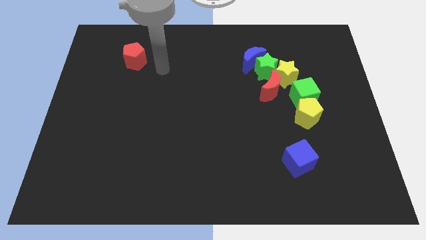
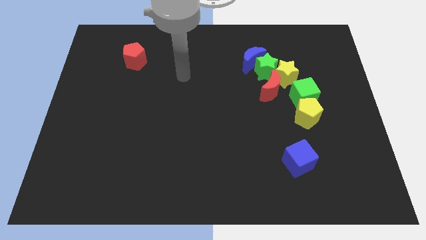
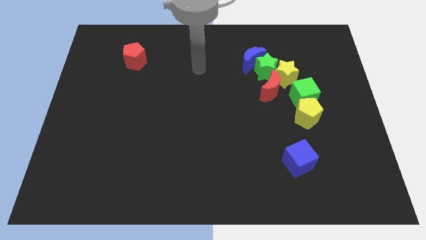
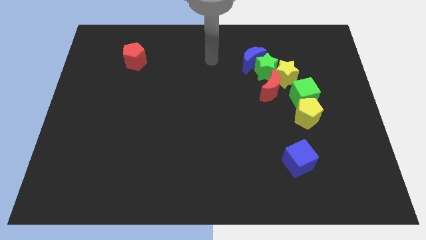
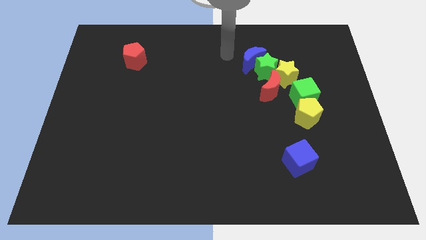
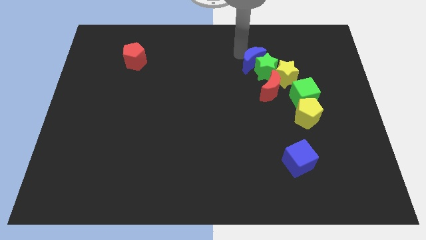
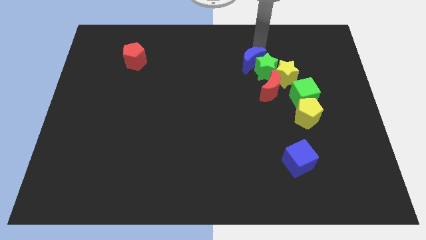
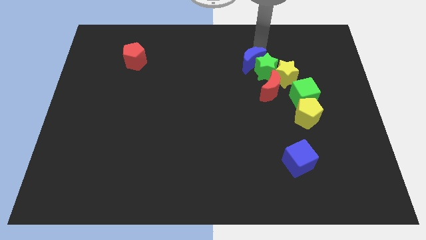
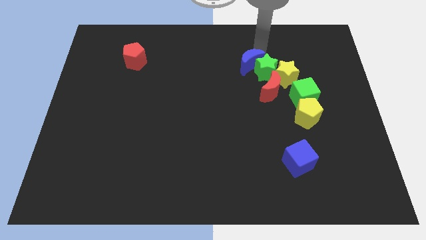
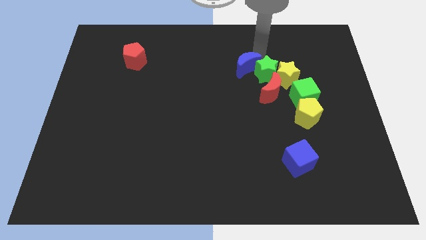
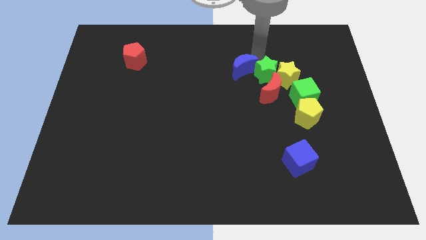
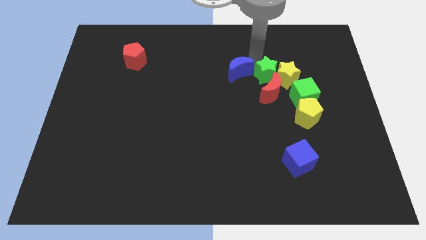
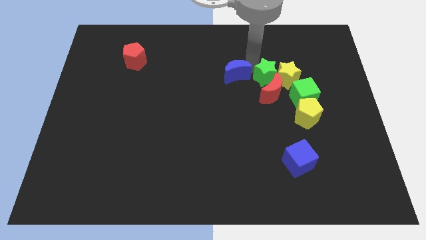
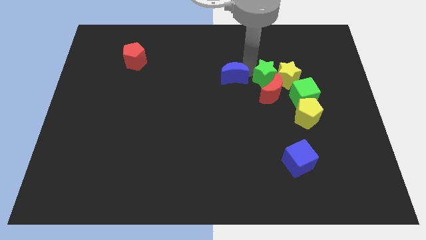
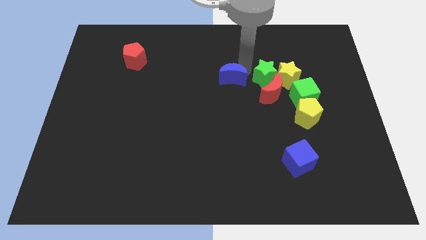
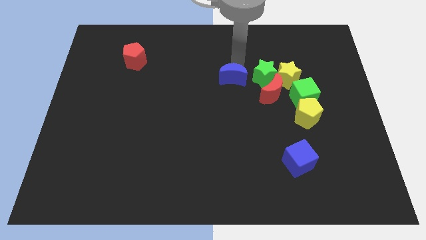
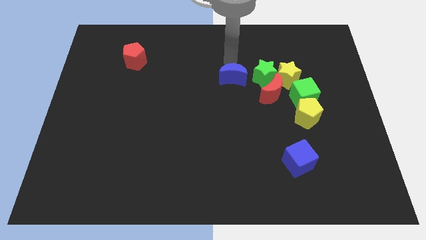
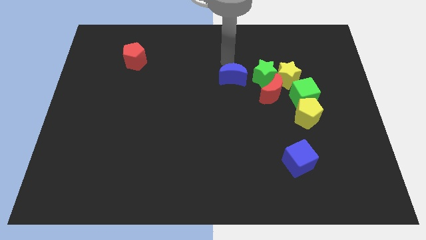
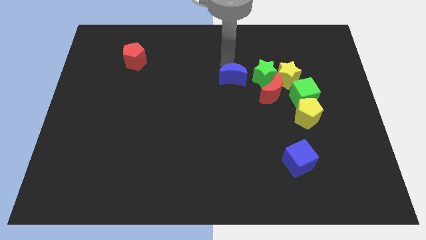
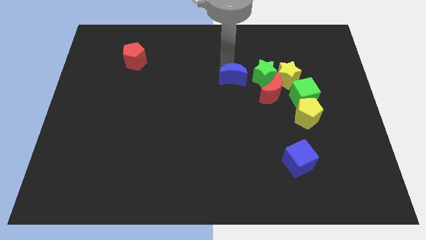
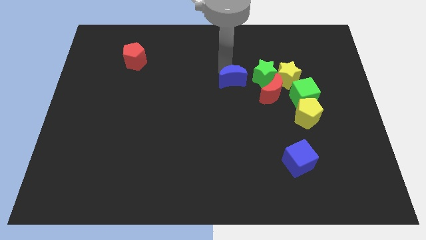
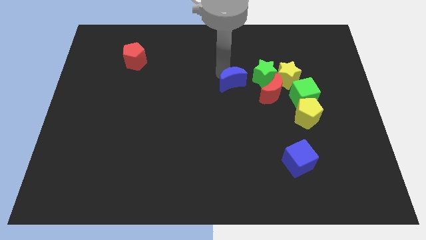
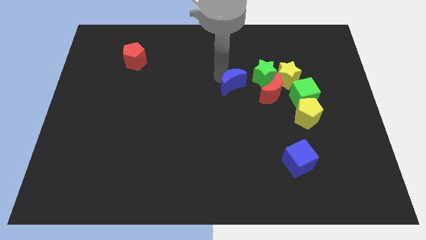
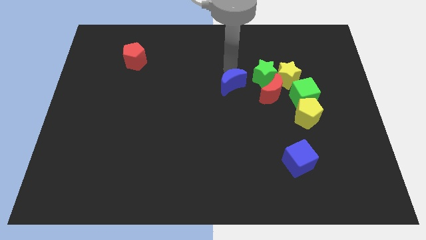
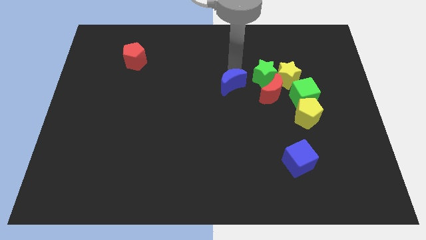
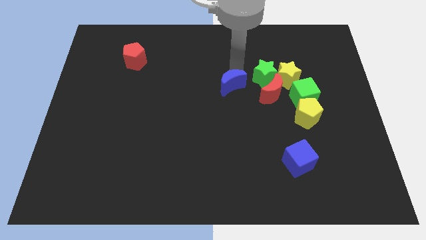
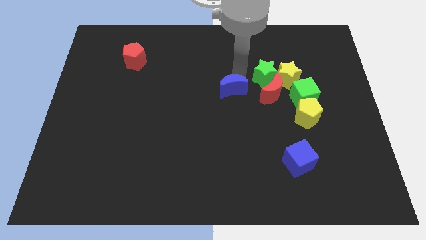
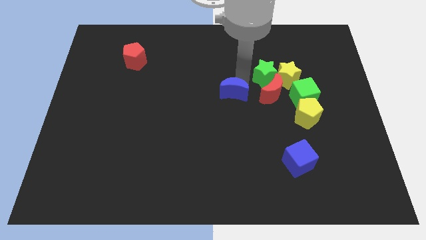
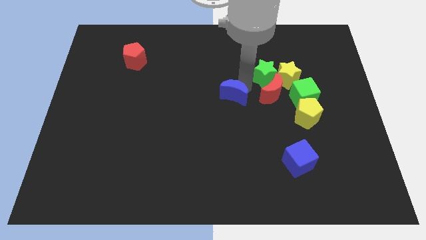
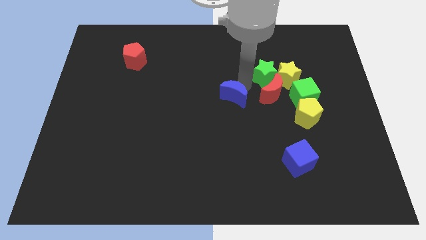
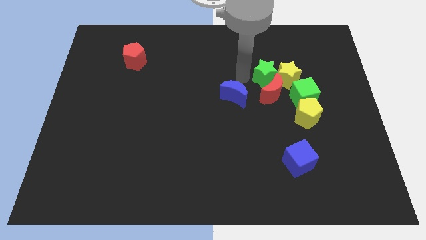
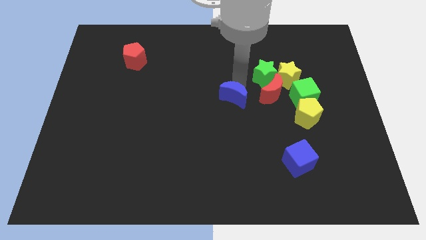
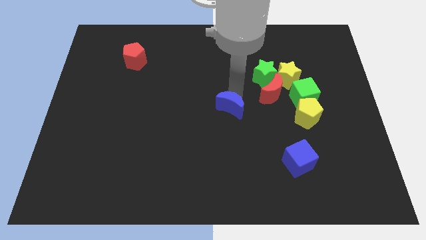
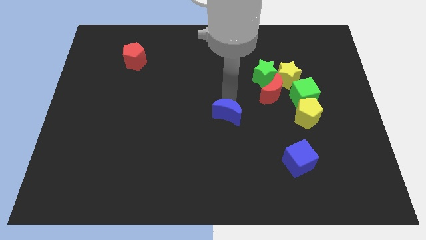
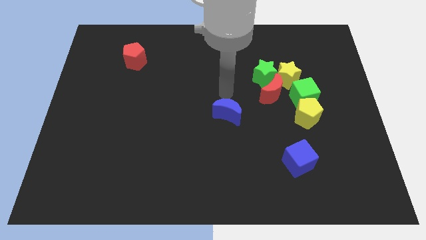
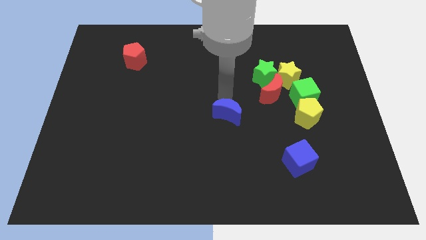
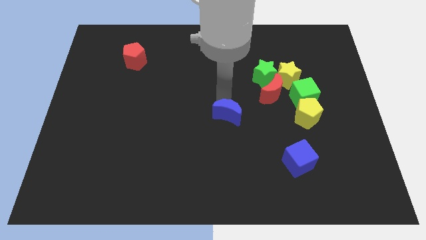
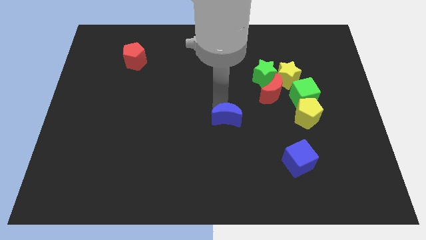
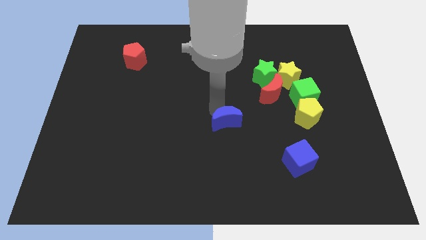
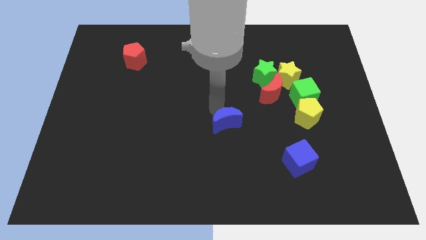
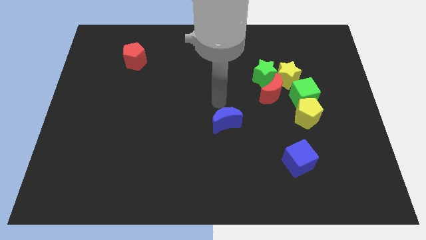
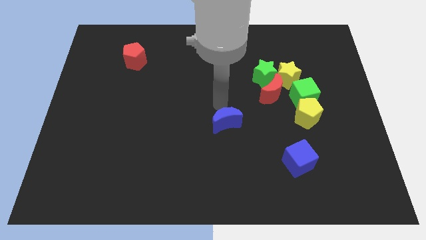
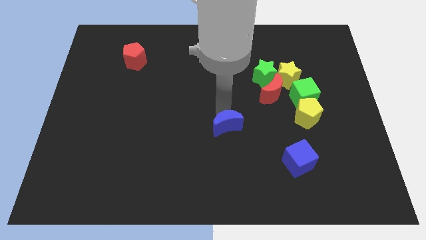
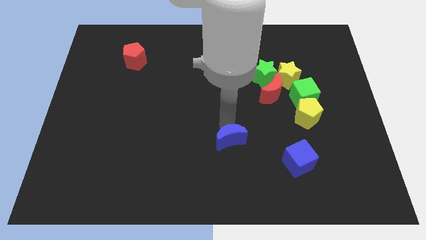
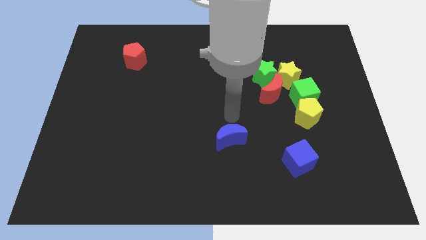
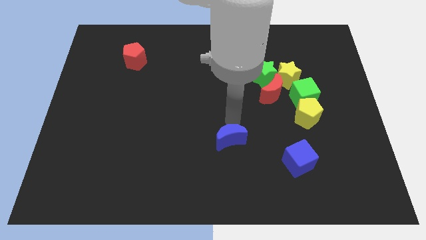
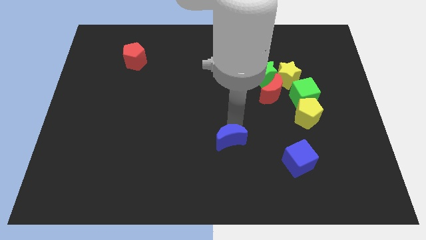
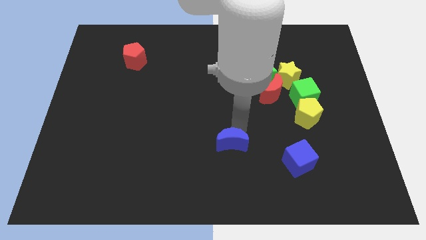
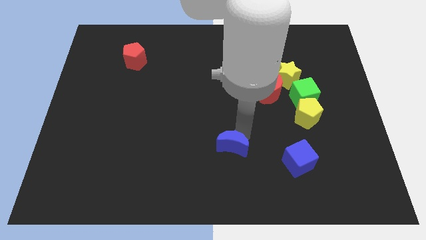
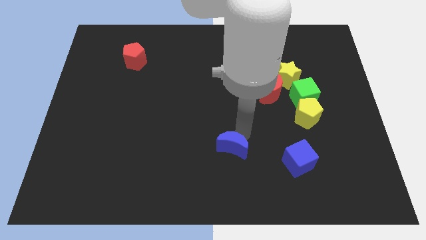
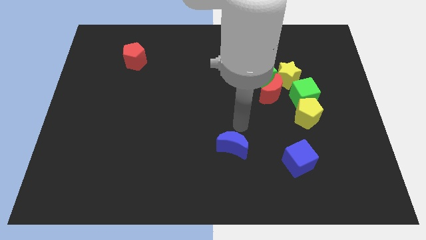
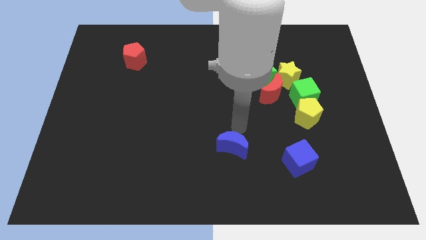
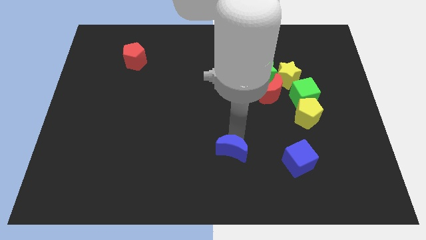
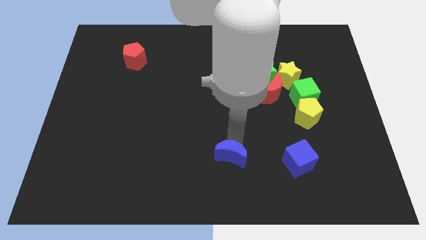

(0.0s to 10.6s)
move the blue moon to the bottom side

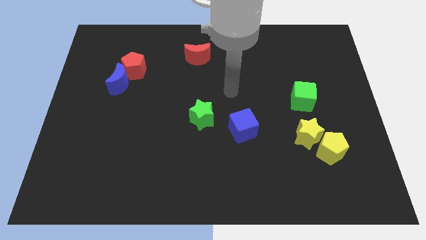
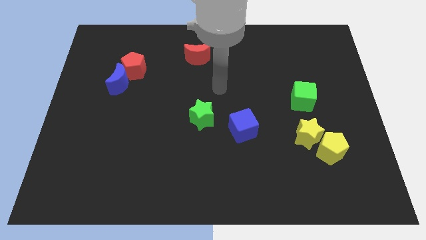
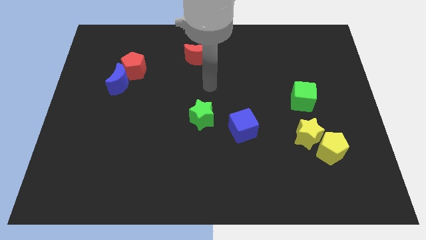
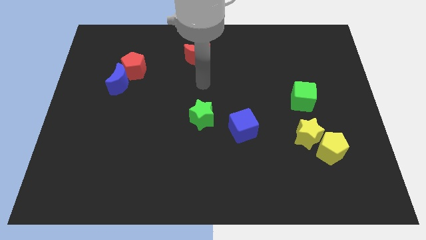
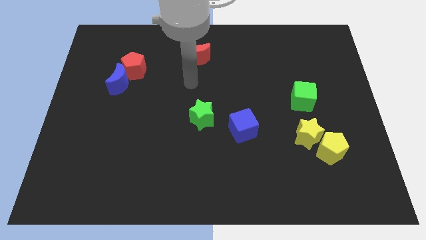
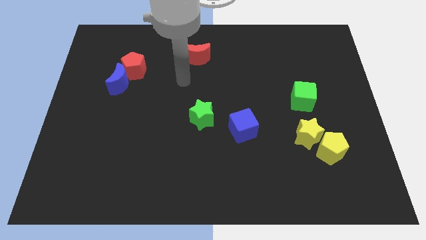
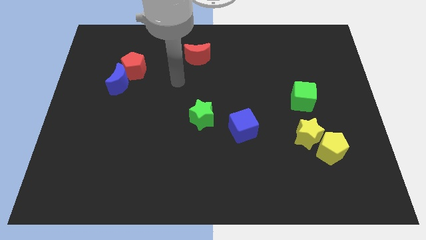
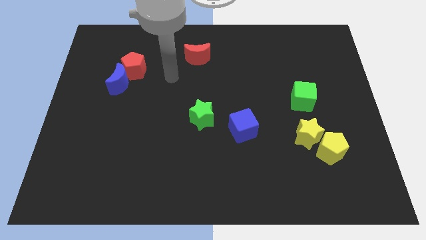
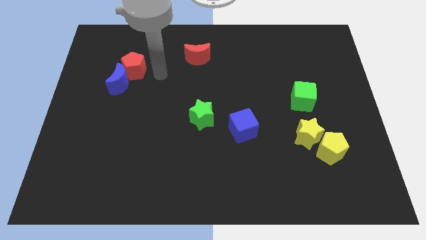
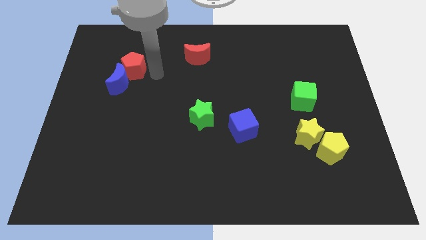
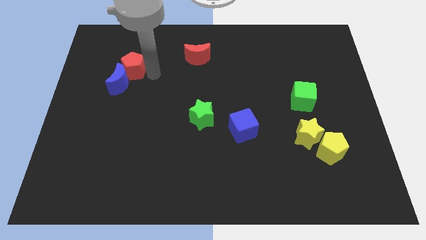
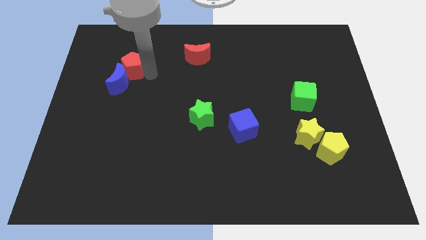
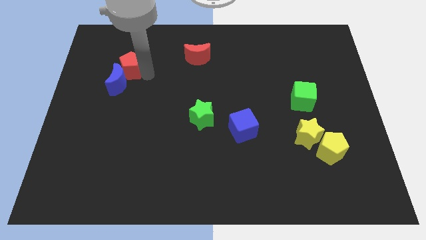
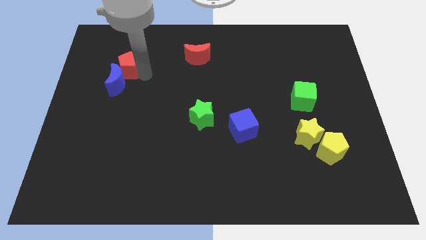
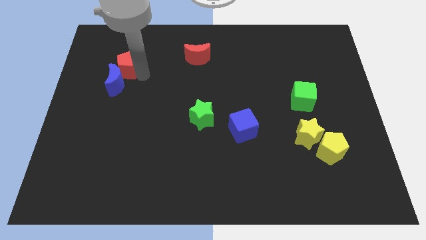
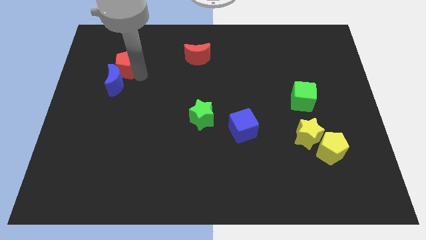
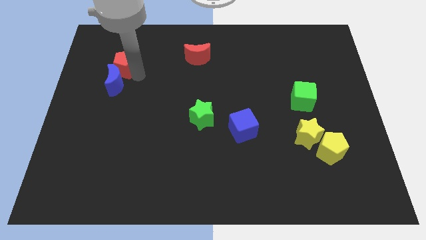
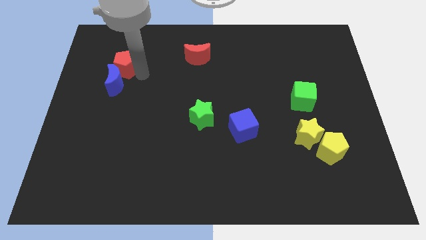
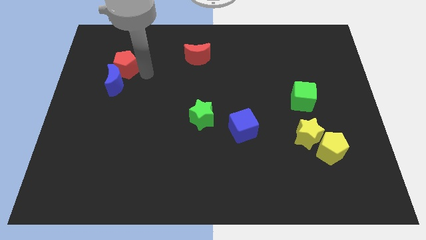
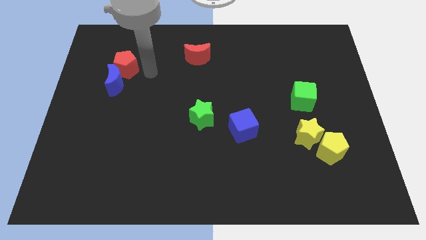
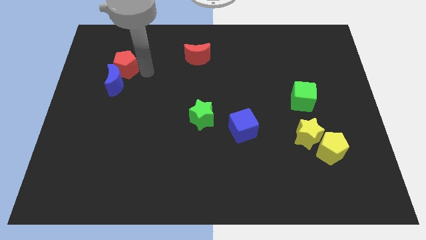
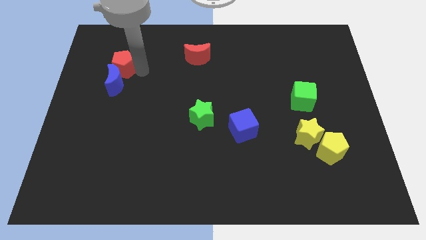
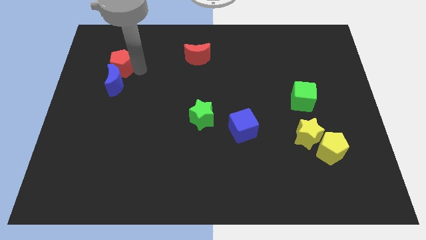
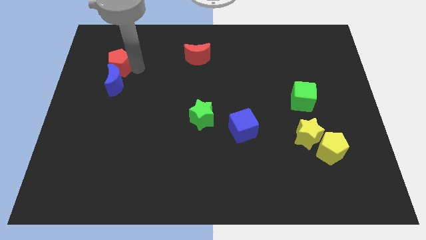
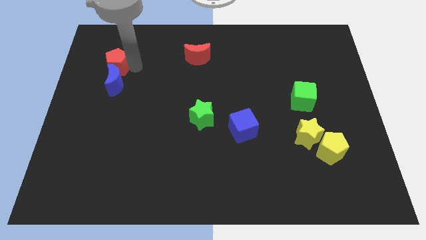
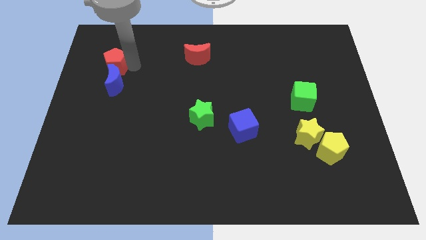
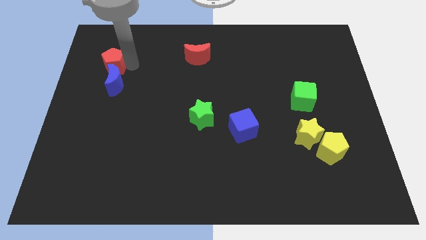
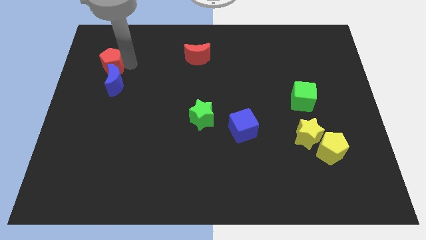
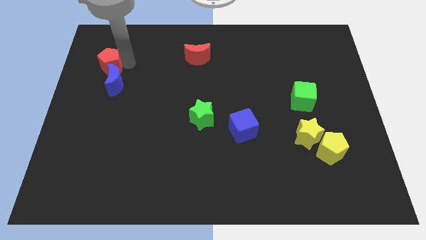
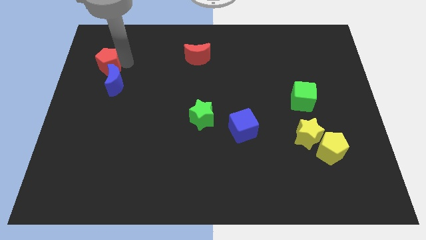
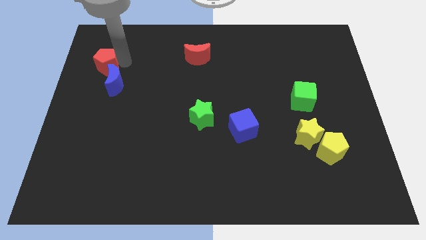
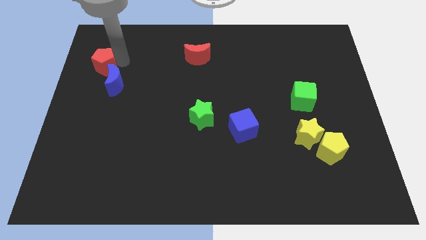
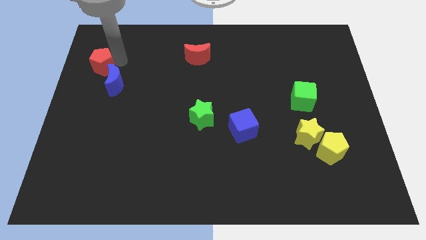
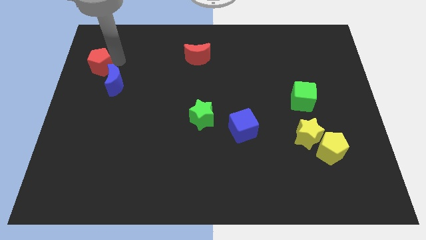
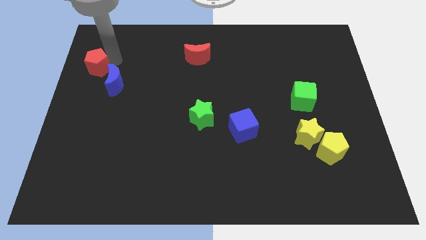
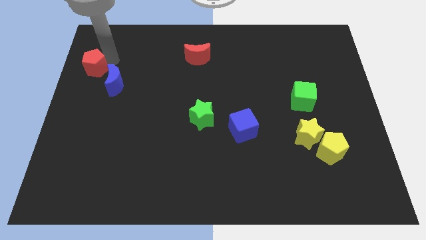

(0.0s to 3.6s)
push the red pentagon to the center left
